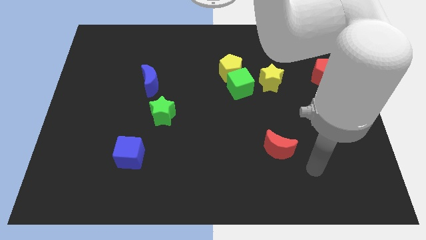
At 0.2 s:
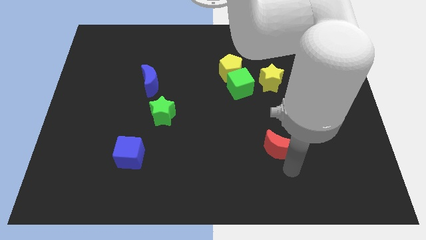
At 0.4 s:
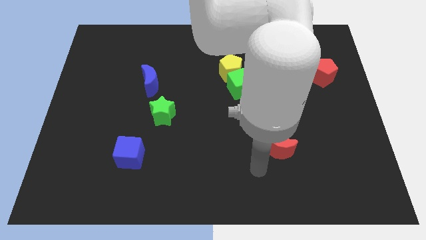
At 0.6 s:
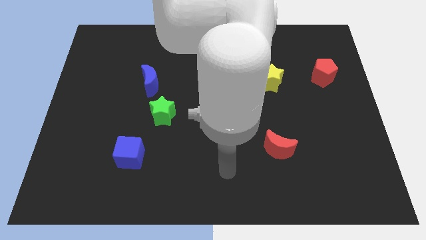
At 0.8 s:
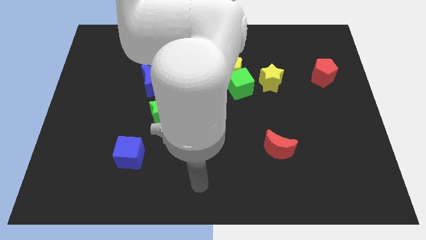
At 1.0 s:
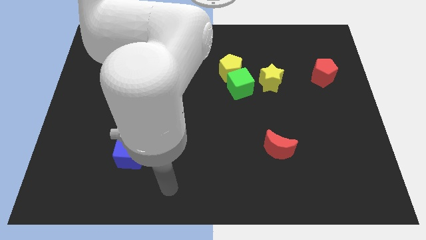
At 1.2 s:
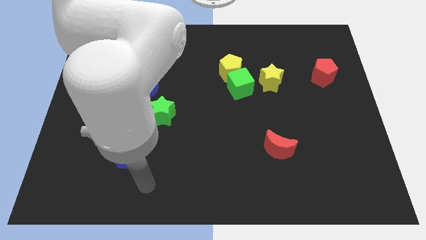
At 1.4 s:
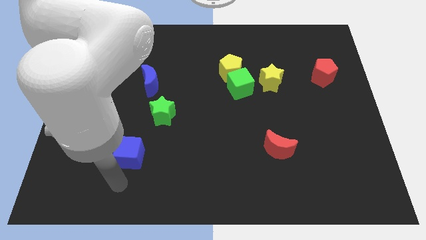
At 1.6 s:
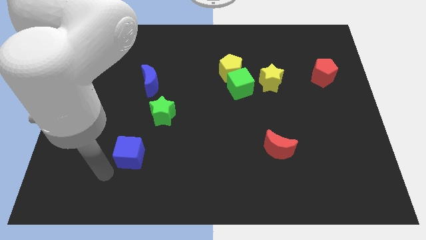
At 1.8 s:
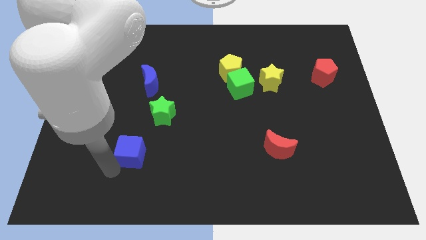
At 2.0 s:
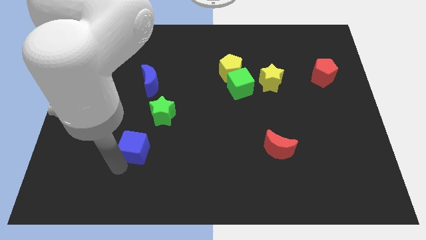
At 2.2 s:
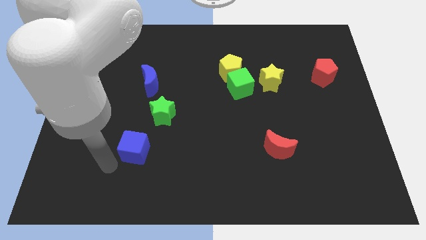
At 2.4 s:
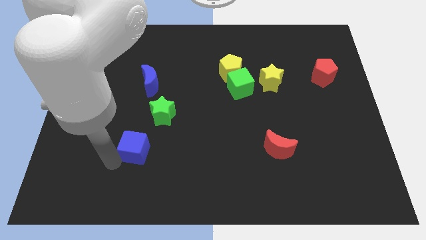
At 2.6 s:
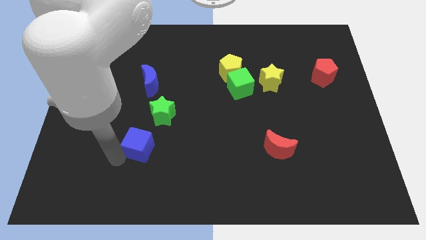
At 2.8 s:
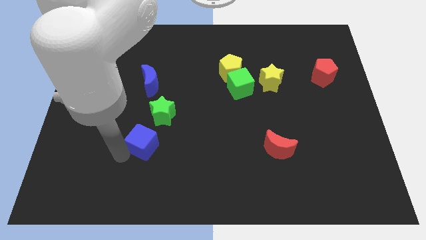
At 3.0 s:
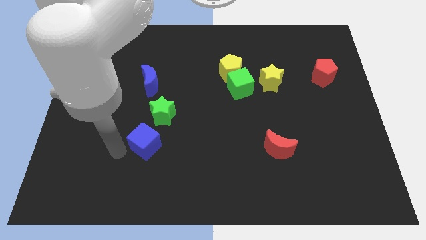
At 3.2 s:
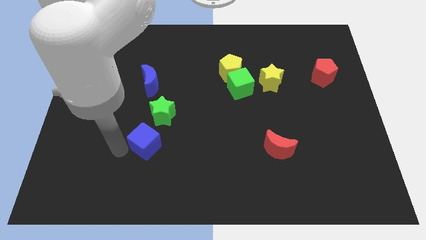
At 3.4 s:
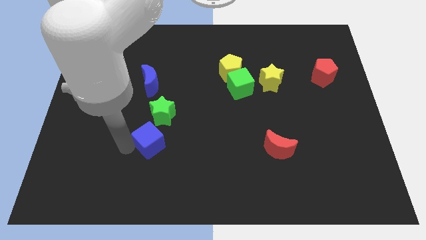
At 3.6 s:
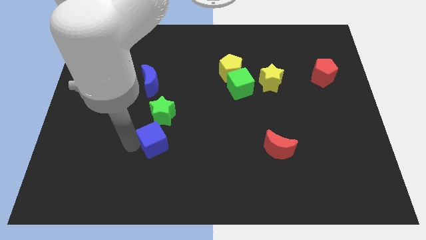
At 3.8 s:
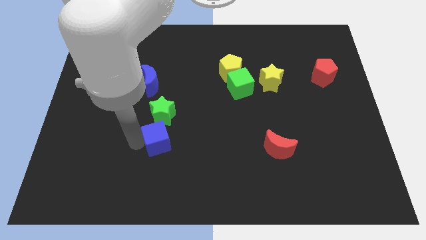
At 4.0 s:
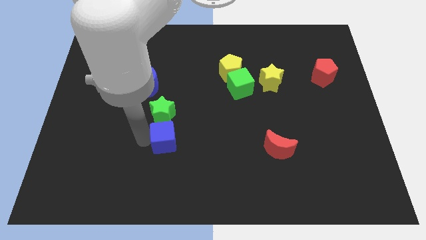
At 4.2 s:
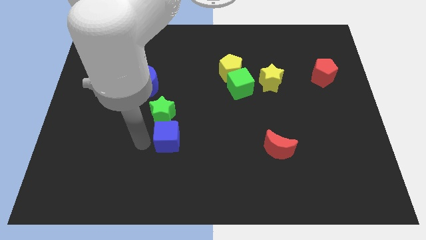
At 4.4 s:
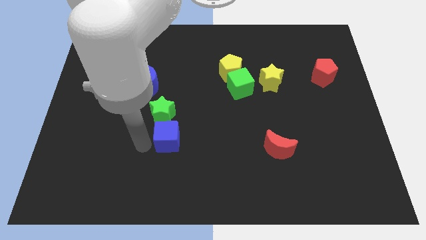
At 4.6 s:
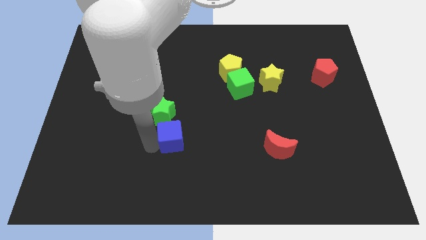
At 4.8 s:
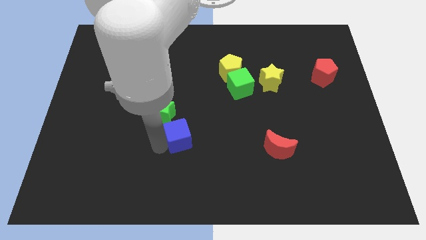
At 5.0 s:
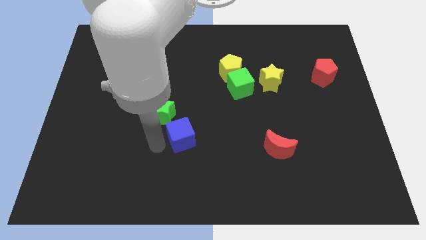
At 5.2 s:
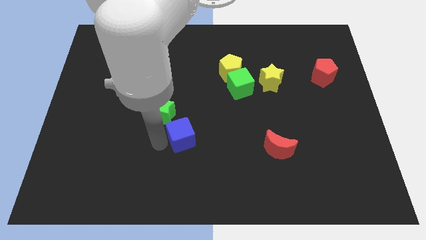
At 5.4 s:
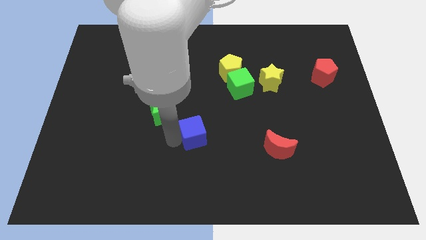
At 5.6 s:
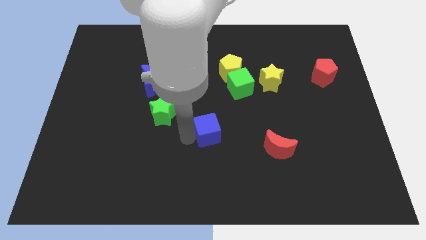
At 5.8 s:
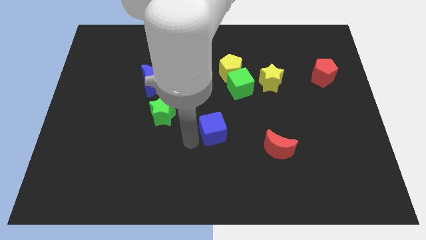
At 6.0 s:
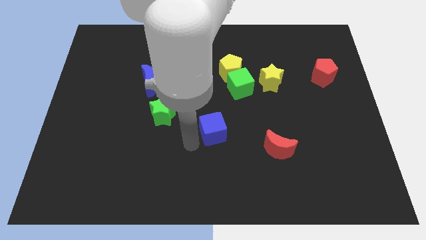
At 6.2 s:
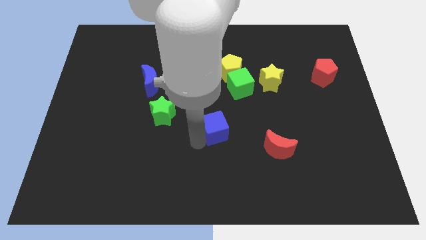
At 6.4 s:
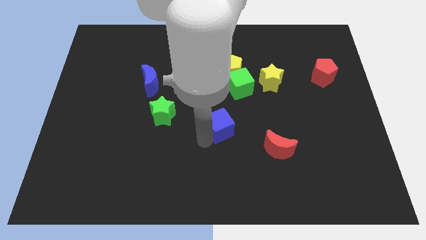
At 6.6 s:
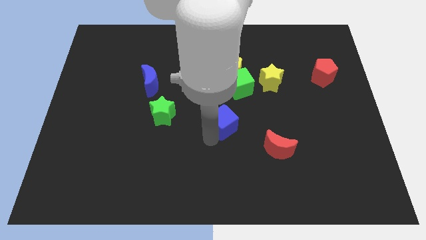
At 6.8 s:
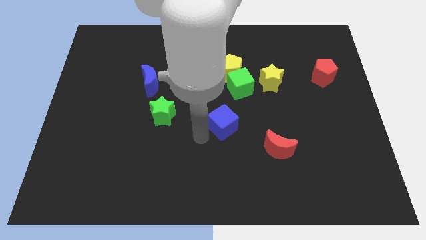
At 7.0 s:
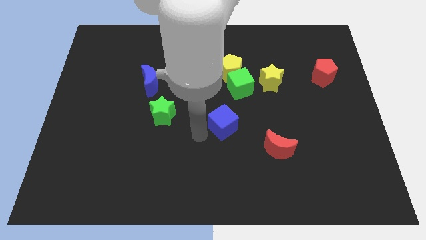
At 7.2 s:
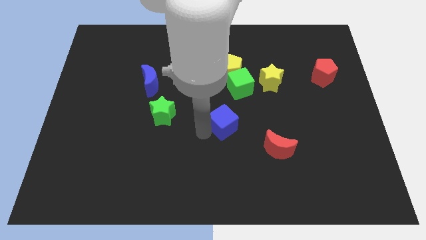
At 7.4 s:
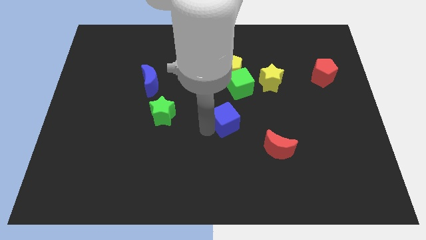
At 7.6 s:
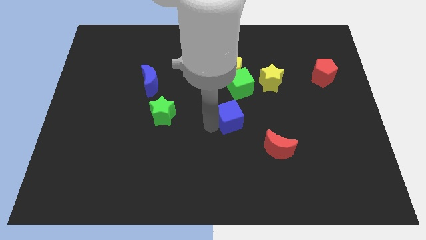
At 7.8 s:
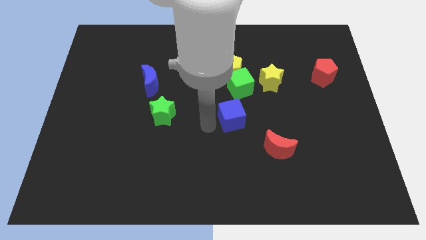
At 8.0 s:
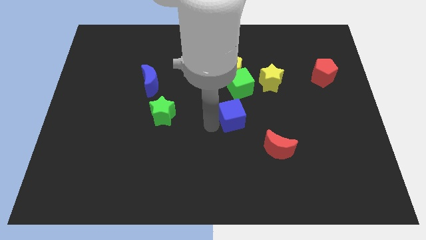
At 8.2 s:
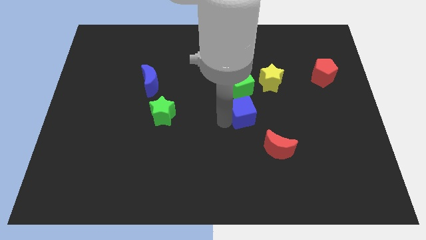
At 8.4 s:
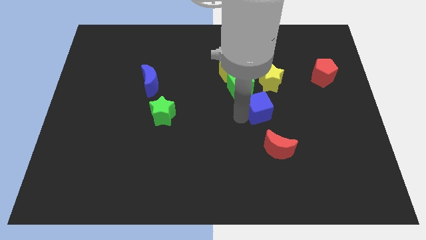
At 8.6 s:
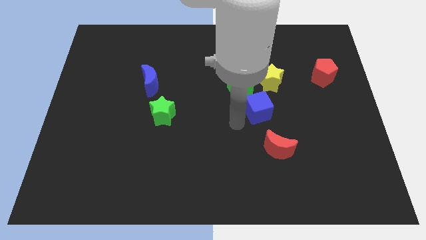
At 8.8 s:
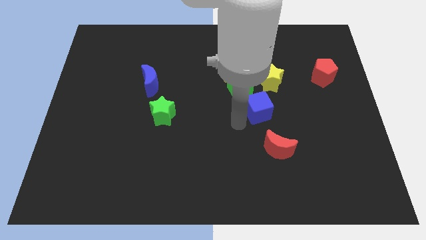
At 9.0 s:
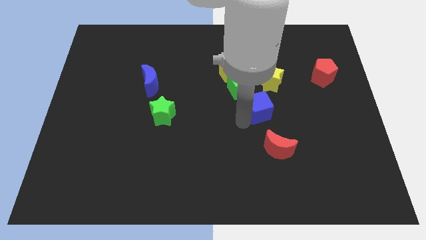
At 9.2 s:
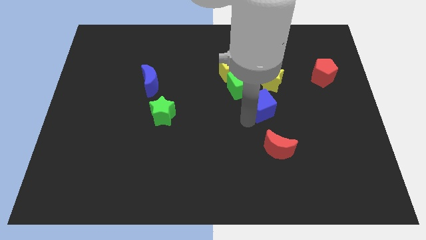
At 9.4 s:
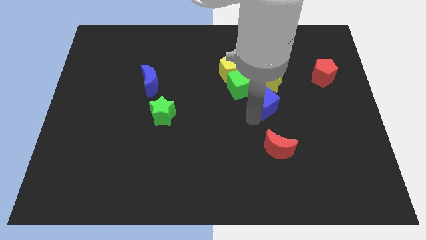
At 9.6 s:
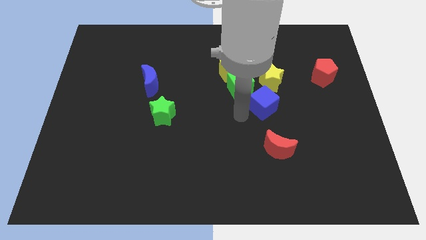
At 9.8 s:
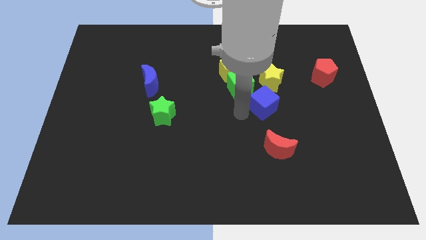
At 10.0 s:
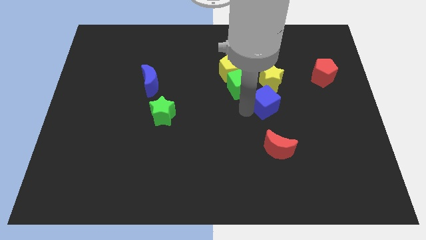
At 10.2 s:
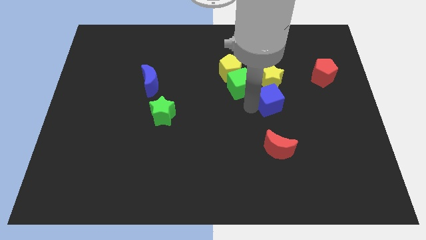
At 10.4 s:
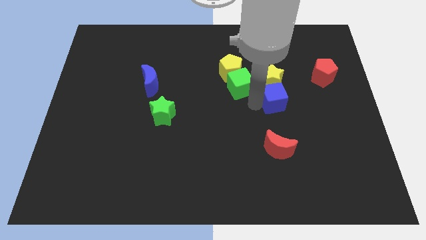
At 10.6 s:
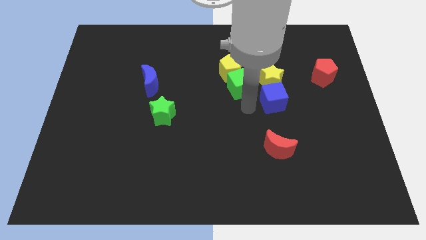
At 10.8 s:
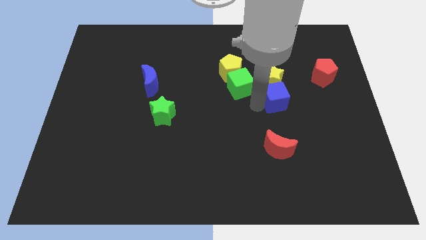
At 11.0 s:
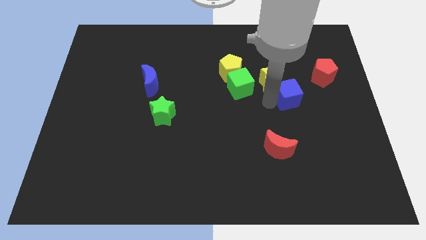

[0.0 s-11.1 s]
push the blue cube diagonally down and to the left of the red pentagon

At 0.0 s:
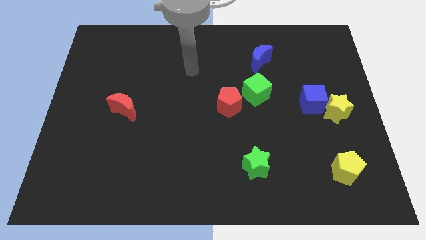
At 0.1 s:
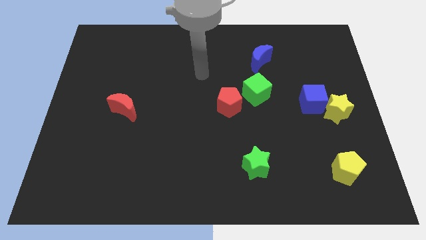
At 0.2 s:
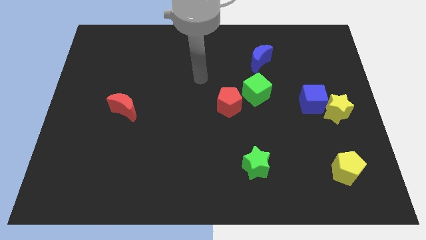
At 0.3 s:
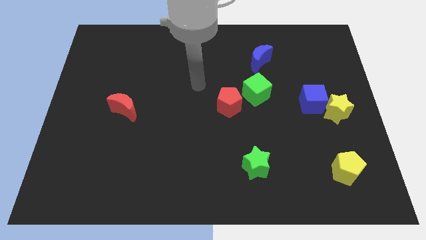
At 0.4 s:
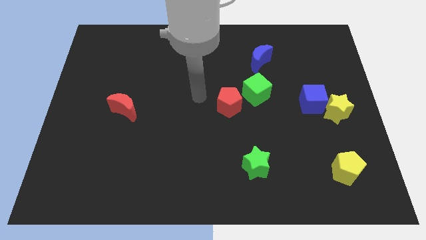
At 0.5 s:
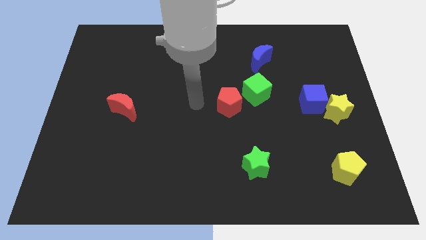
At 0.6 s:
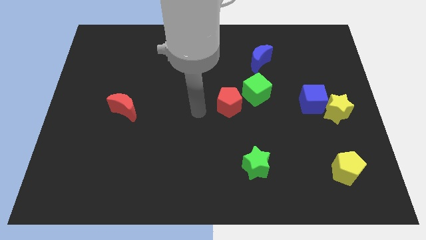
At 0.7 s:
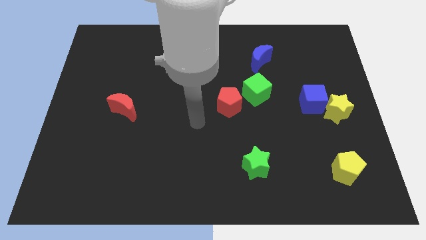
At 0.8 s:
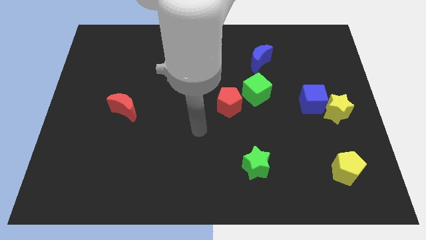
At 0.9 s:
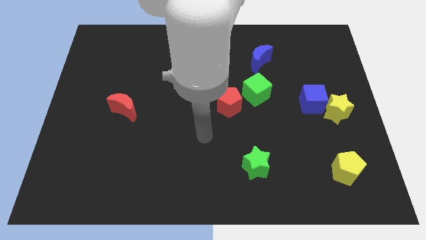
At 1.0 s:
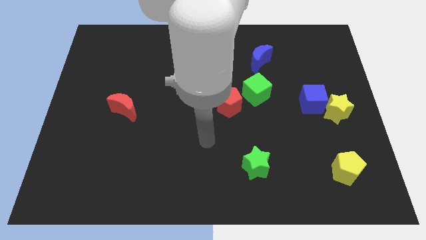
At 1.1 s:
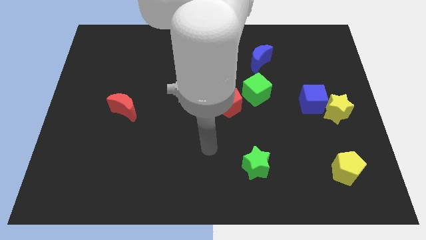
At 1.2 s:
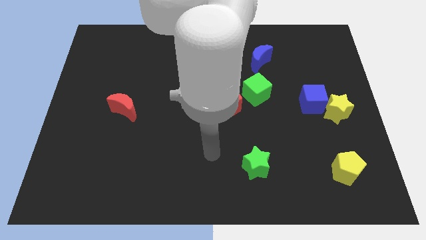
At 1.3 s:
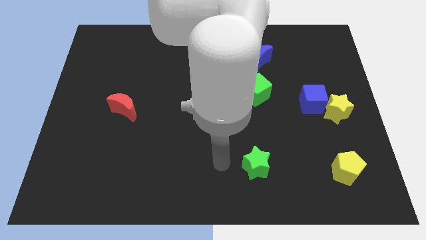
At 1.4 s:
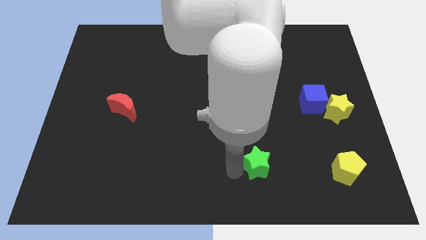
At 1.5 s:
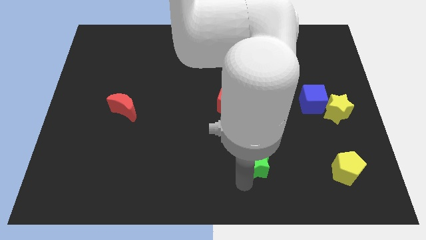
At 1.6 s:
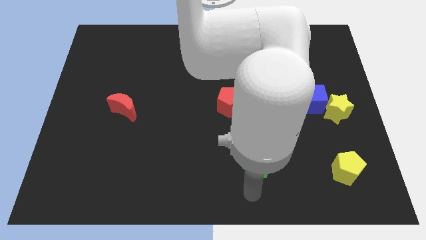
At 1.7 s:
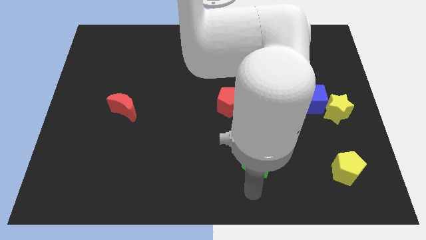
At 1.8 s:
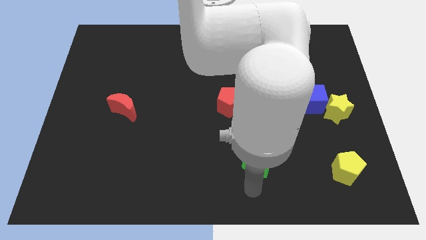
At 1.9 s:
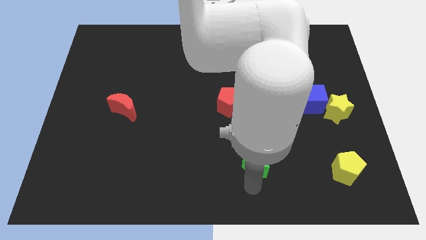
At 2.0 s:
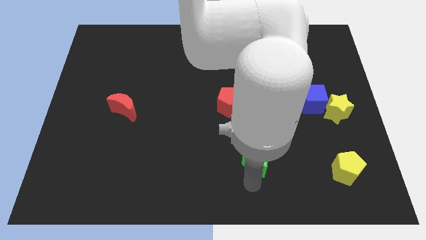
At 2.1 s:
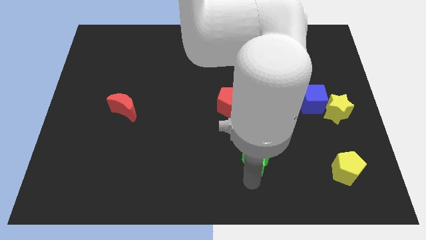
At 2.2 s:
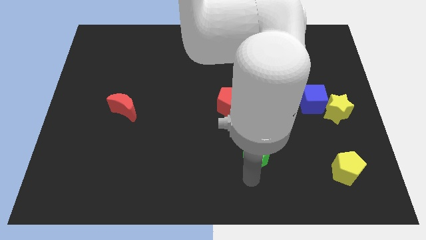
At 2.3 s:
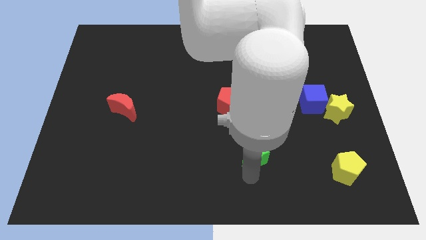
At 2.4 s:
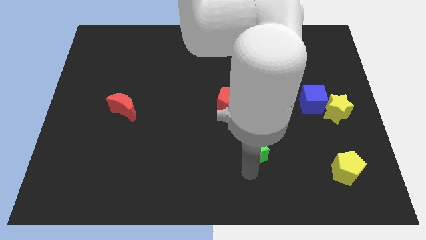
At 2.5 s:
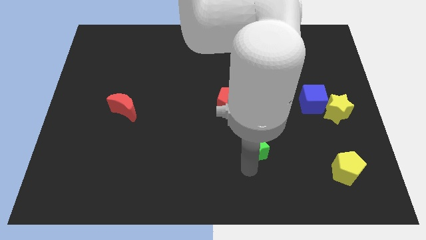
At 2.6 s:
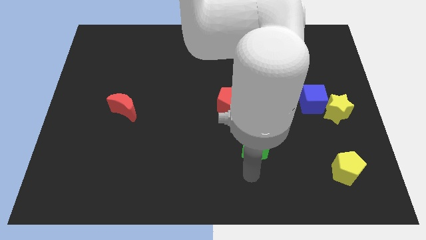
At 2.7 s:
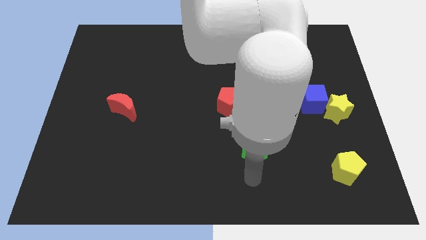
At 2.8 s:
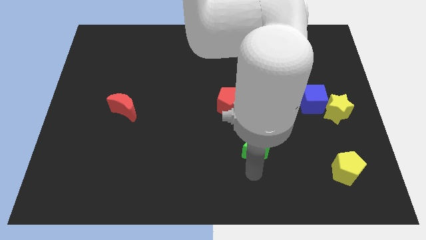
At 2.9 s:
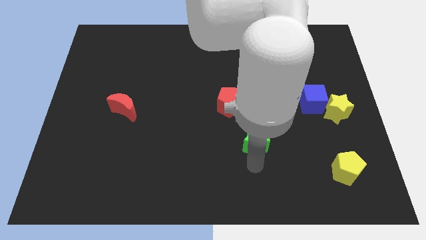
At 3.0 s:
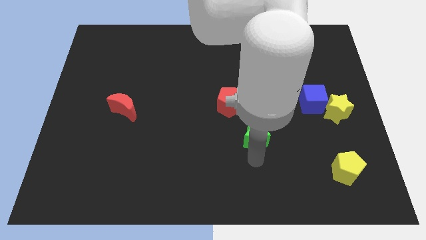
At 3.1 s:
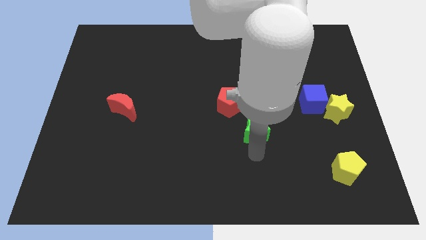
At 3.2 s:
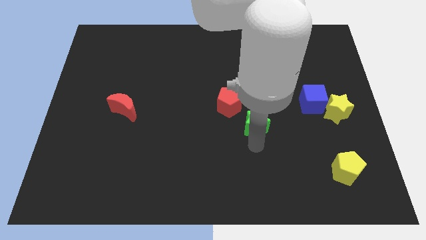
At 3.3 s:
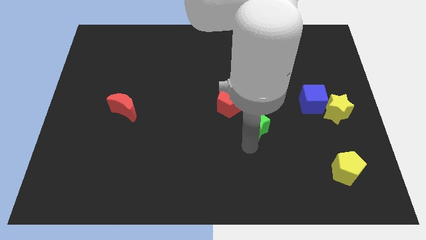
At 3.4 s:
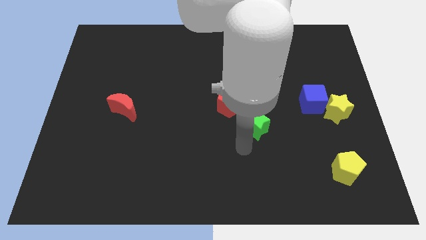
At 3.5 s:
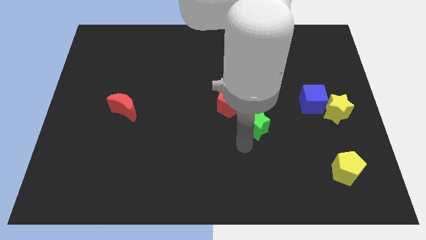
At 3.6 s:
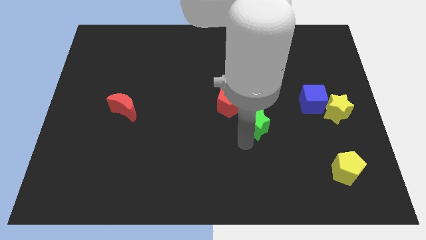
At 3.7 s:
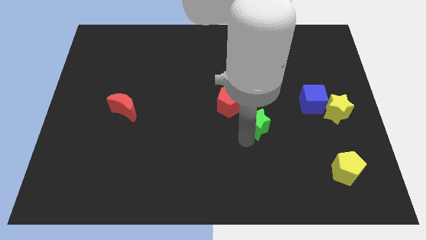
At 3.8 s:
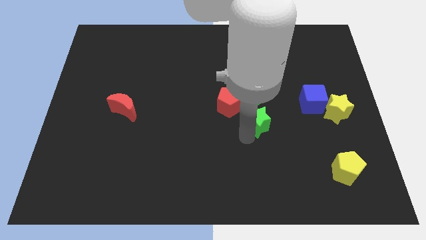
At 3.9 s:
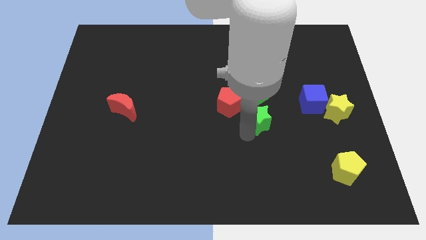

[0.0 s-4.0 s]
move the green star to the right side of the red pentagon
